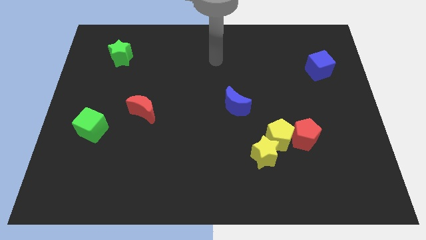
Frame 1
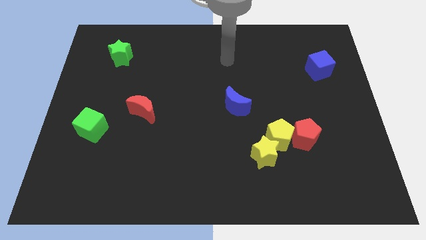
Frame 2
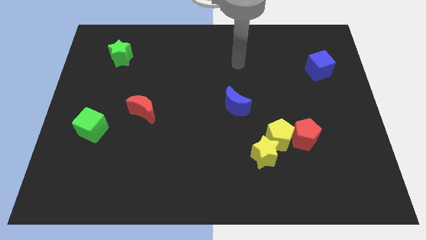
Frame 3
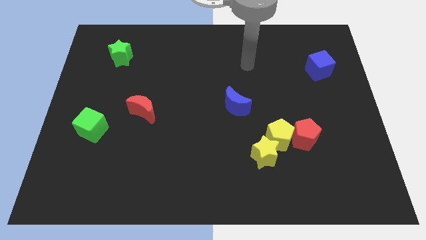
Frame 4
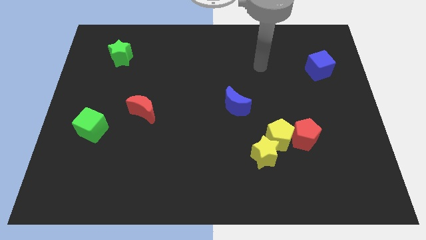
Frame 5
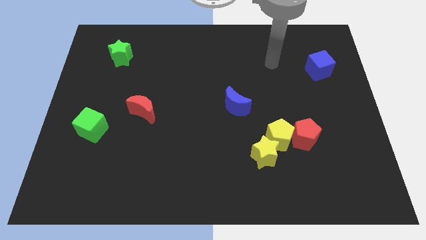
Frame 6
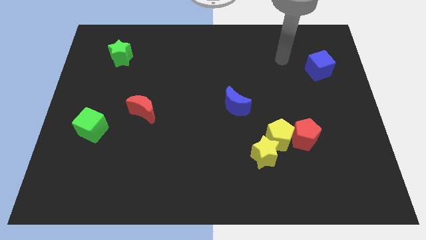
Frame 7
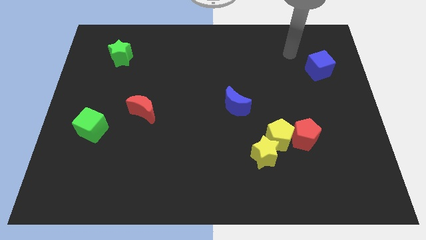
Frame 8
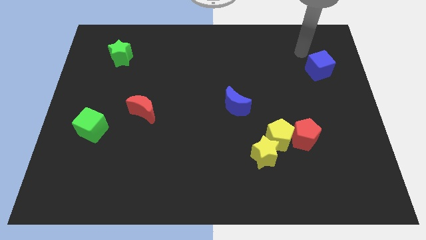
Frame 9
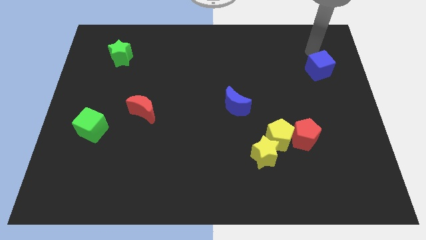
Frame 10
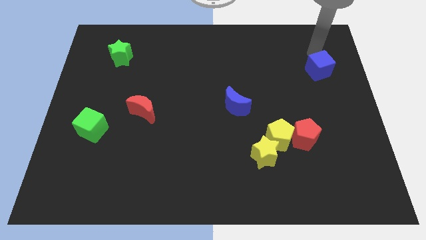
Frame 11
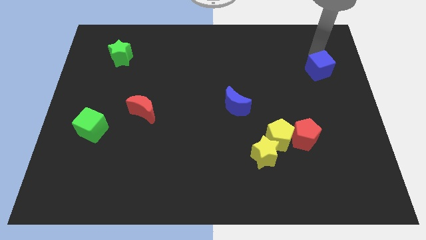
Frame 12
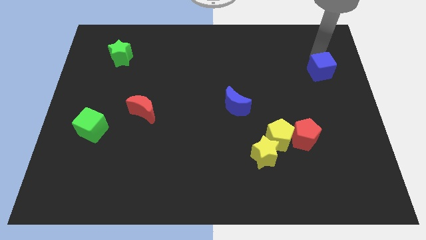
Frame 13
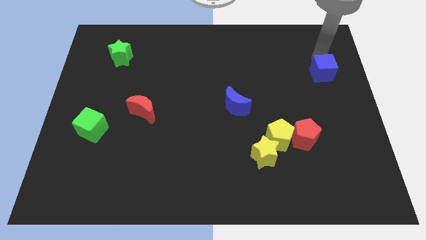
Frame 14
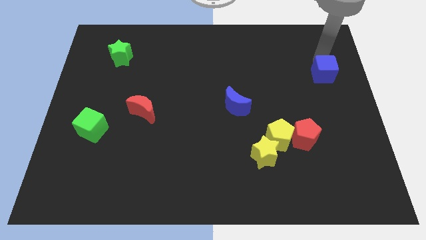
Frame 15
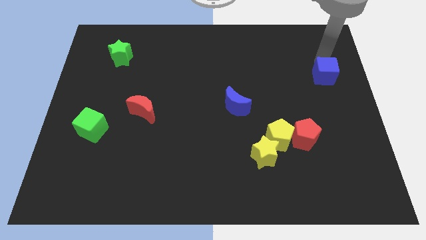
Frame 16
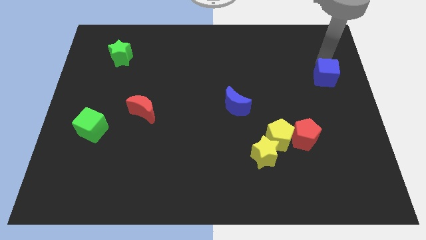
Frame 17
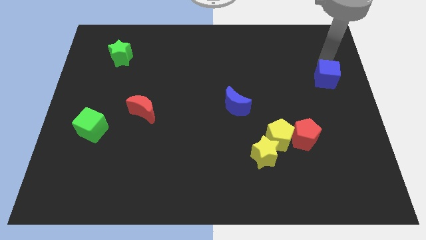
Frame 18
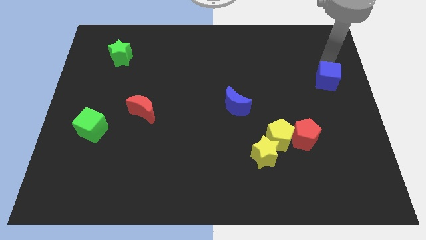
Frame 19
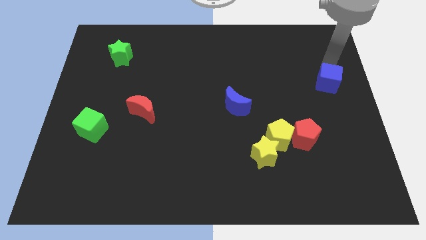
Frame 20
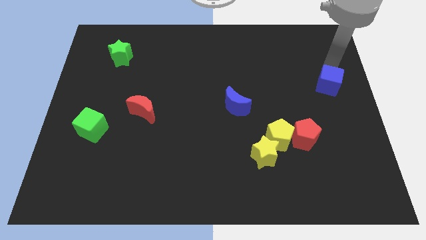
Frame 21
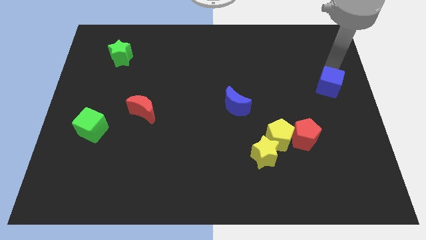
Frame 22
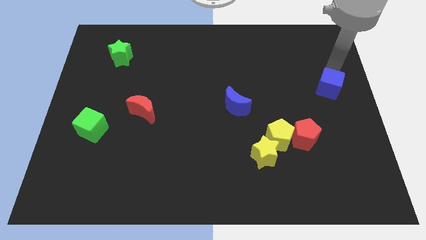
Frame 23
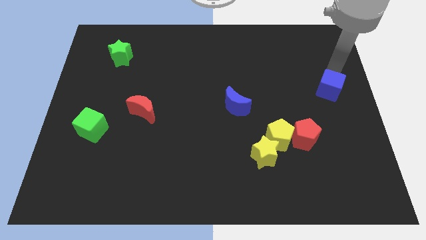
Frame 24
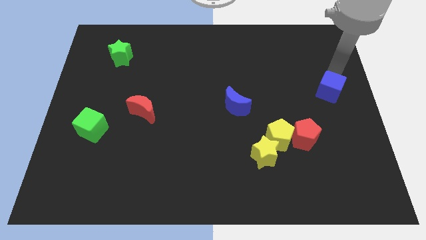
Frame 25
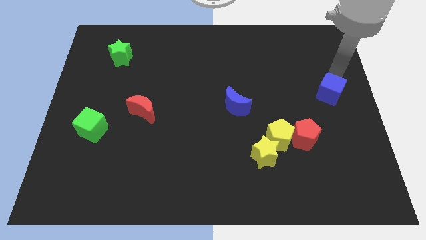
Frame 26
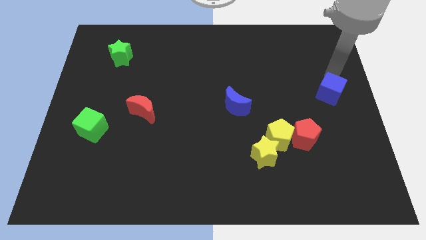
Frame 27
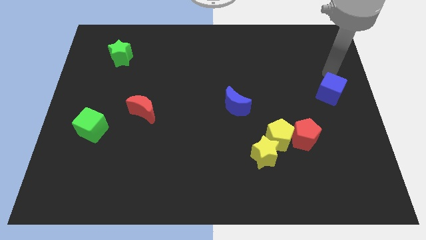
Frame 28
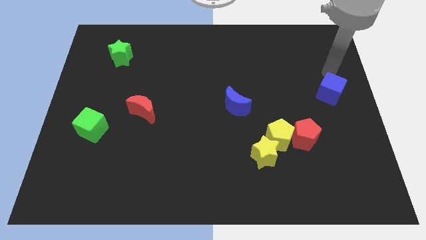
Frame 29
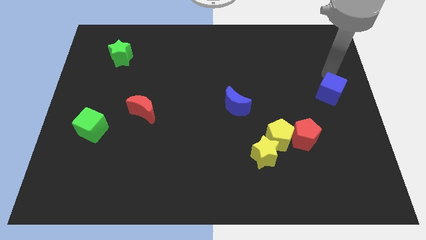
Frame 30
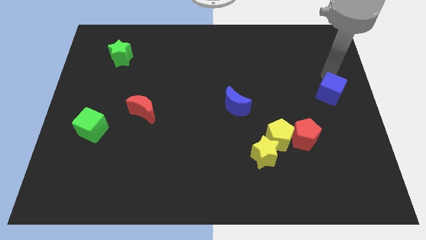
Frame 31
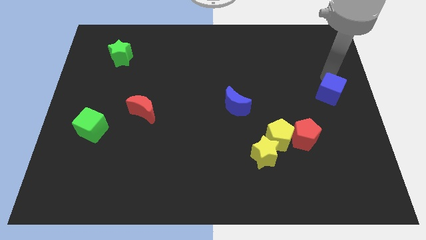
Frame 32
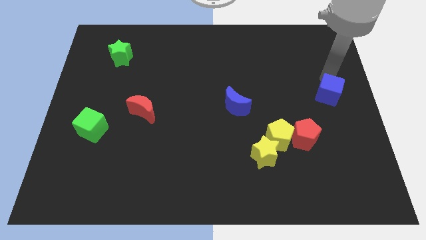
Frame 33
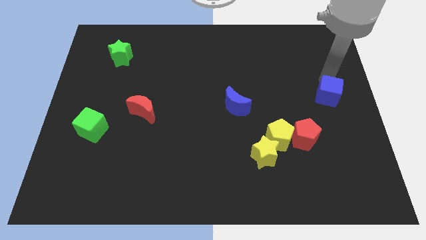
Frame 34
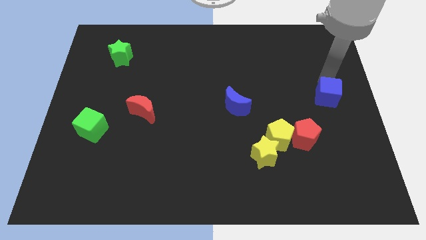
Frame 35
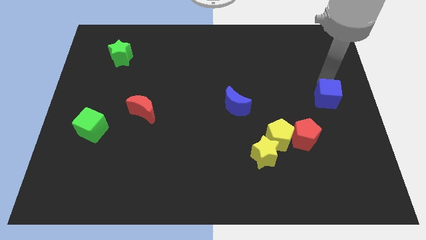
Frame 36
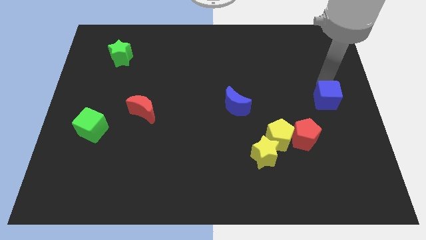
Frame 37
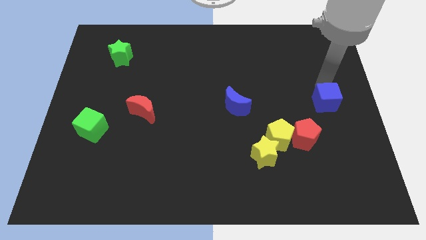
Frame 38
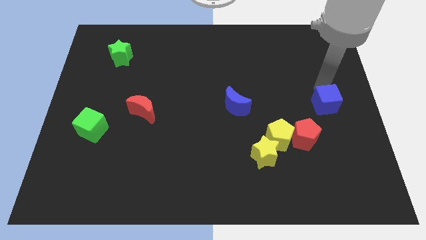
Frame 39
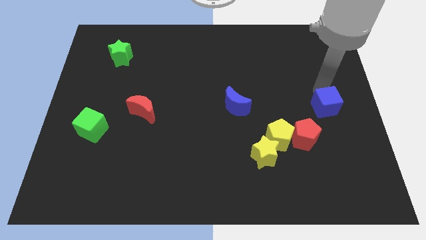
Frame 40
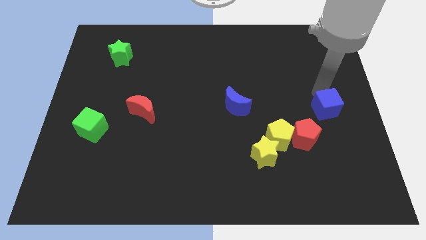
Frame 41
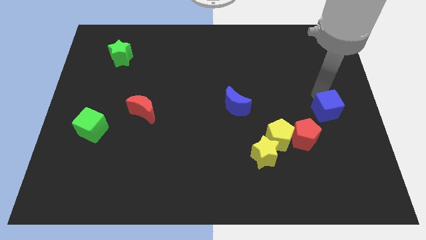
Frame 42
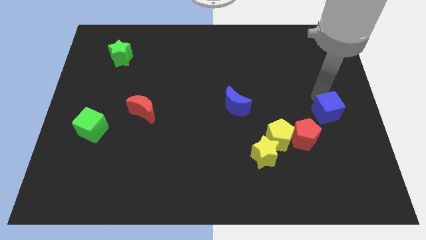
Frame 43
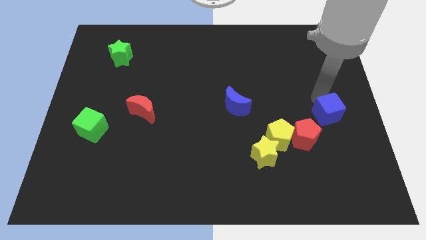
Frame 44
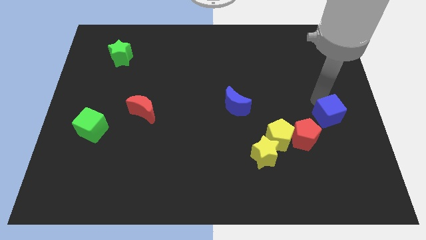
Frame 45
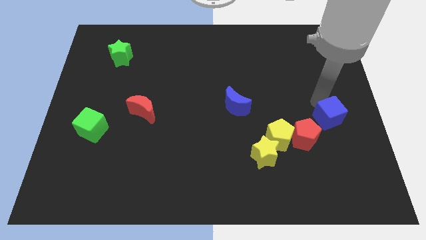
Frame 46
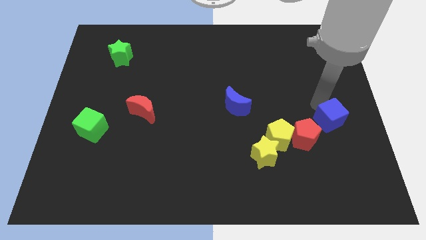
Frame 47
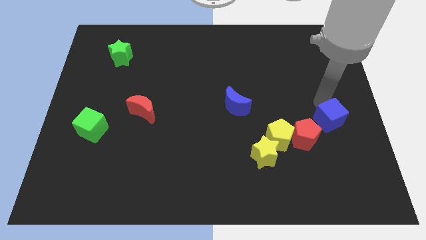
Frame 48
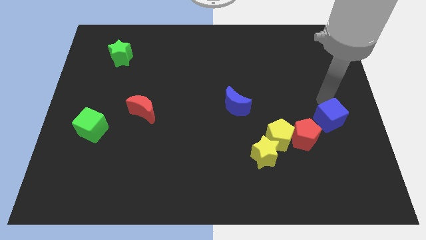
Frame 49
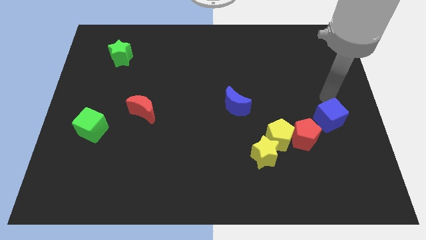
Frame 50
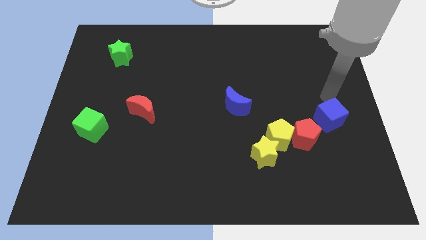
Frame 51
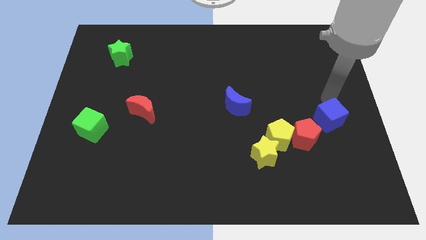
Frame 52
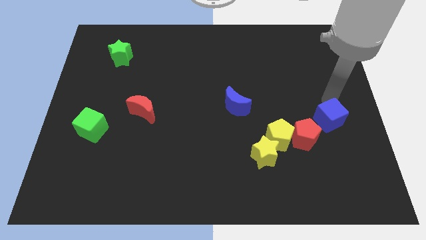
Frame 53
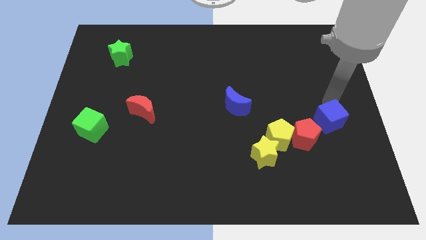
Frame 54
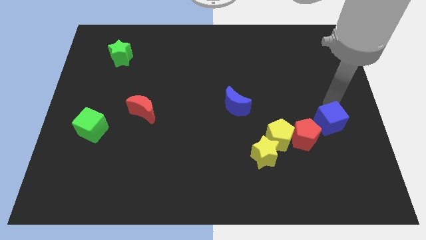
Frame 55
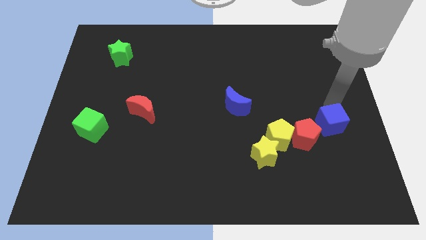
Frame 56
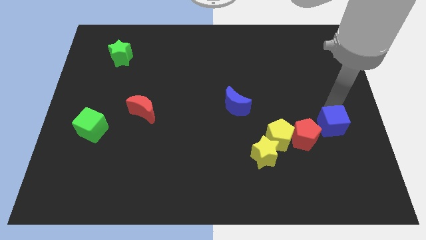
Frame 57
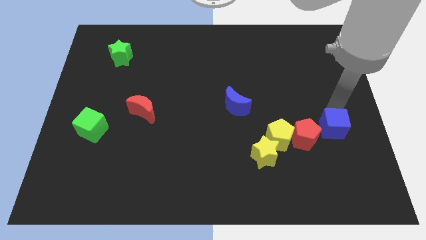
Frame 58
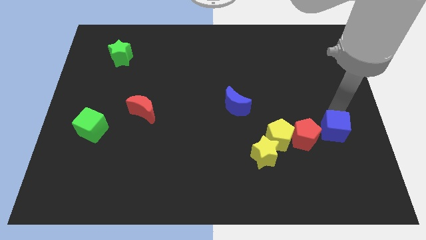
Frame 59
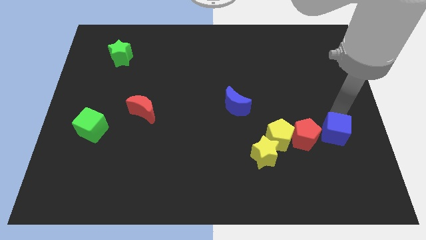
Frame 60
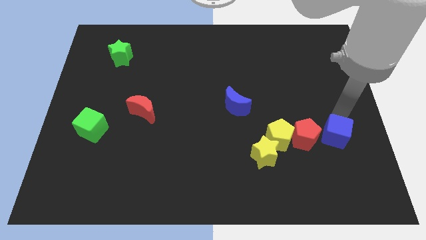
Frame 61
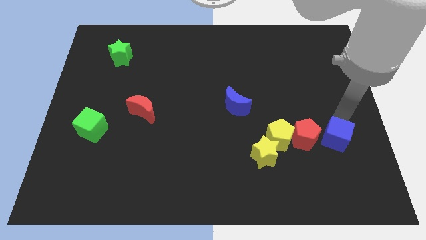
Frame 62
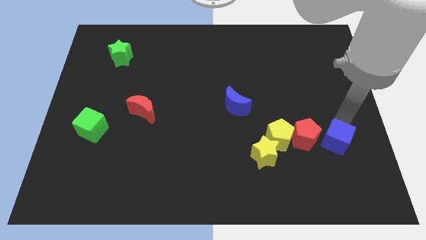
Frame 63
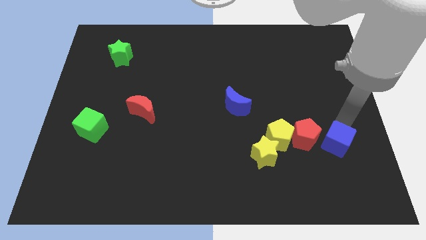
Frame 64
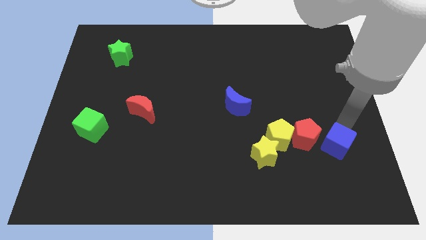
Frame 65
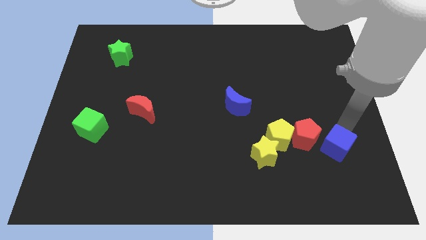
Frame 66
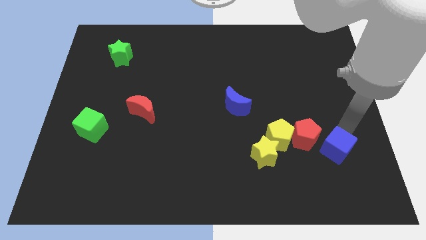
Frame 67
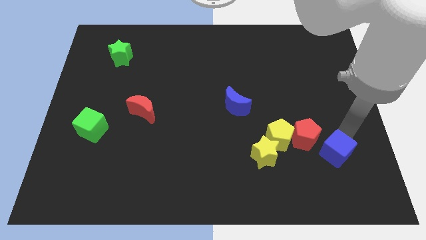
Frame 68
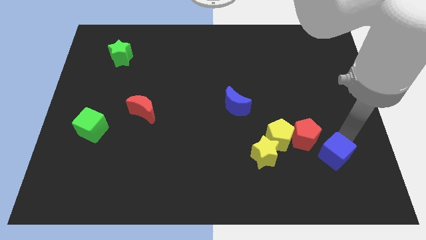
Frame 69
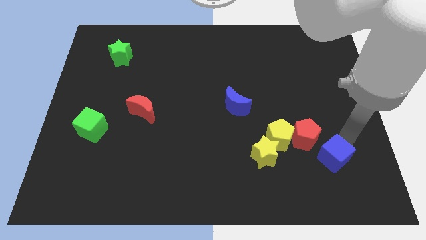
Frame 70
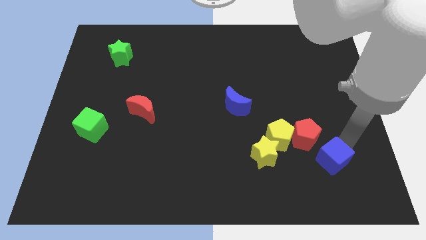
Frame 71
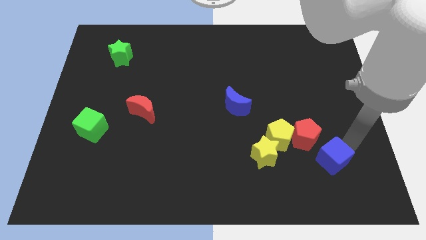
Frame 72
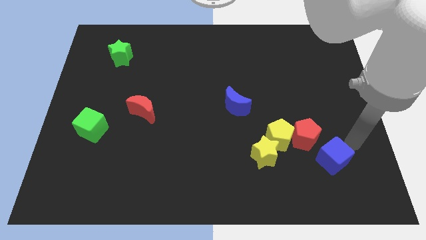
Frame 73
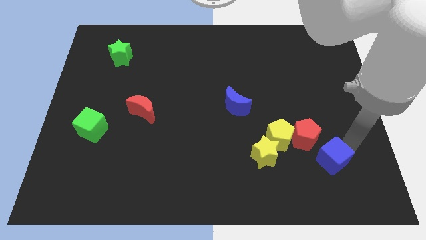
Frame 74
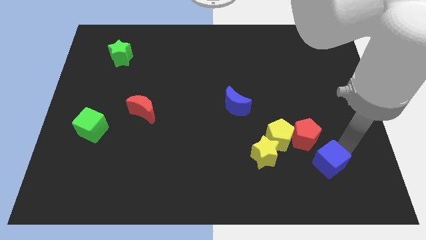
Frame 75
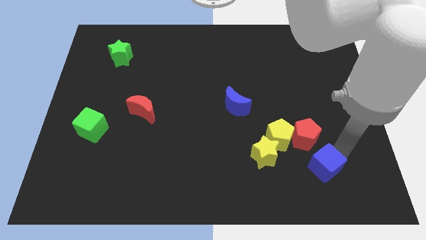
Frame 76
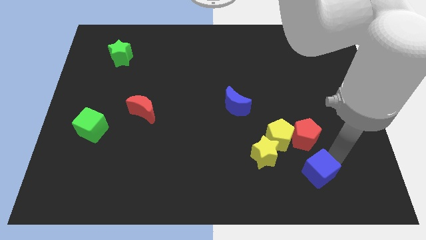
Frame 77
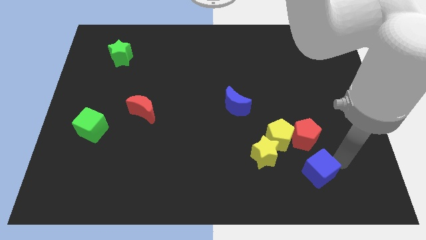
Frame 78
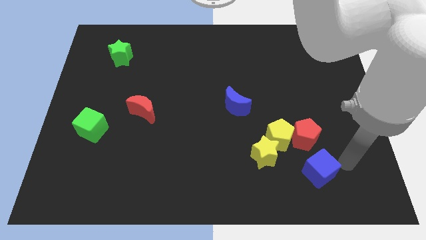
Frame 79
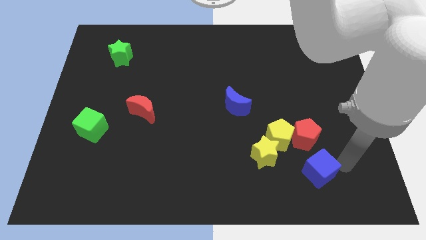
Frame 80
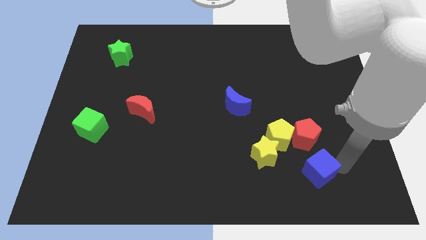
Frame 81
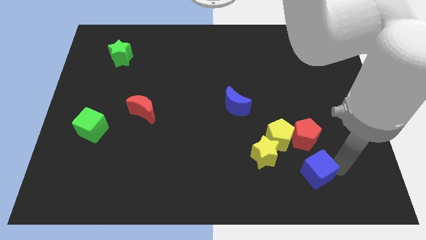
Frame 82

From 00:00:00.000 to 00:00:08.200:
slide the blue cube diagonally down and to the right of the yellow star
